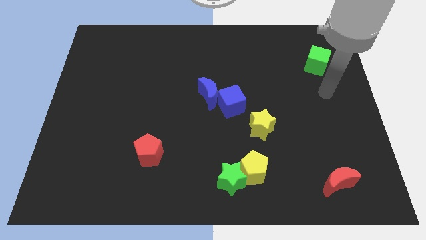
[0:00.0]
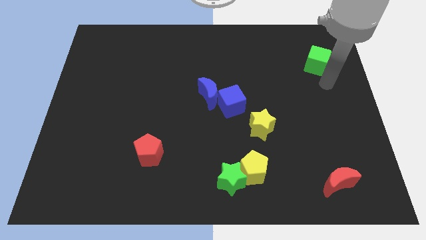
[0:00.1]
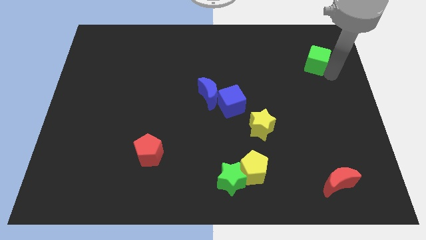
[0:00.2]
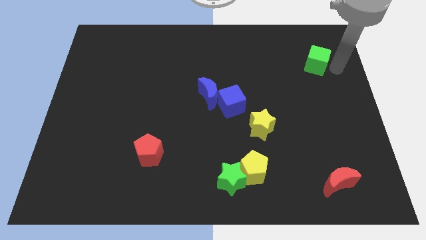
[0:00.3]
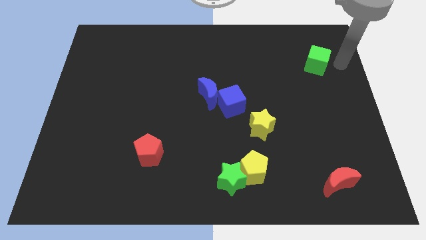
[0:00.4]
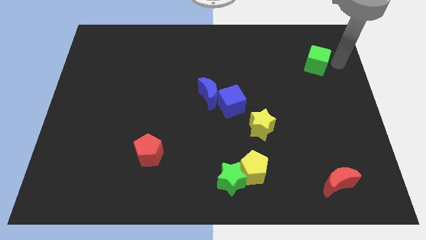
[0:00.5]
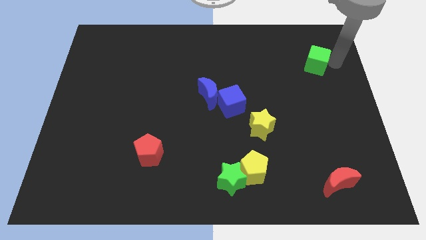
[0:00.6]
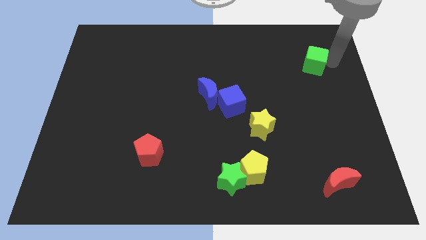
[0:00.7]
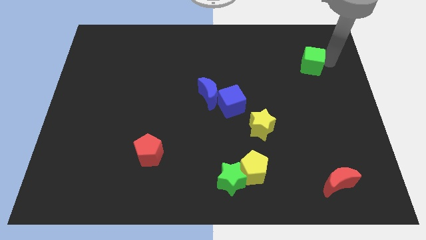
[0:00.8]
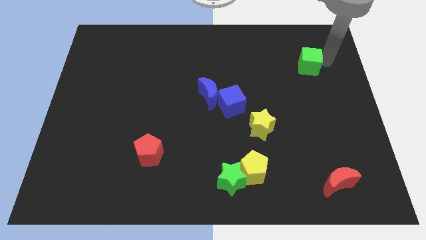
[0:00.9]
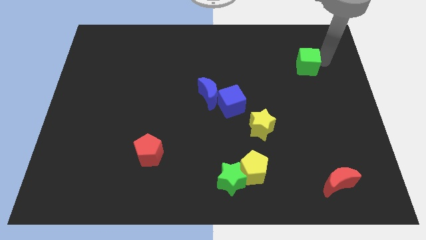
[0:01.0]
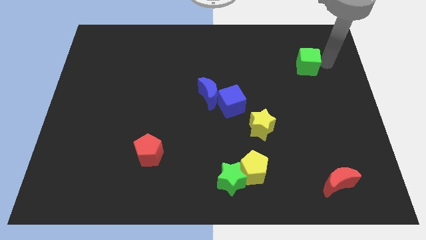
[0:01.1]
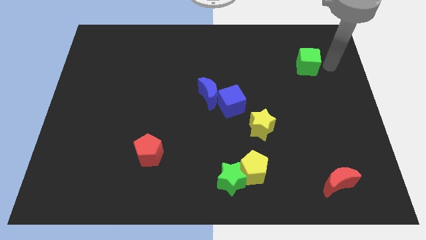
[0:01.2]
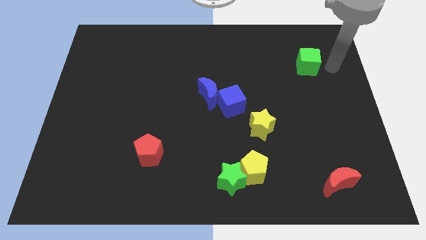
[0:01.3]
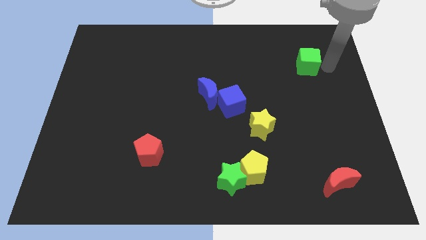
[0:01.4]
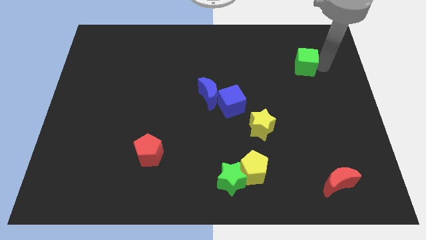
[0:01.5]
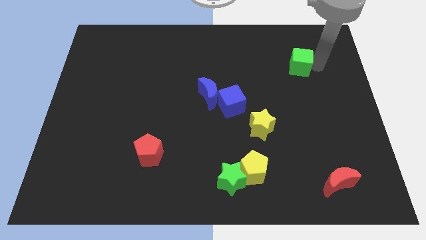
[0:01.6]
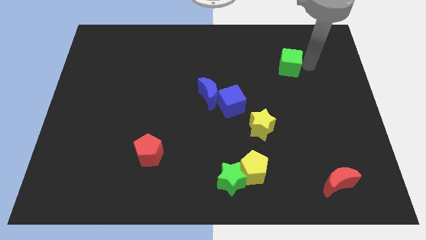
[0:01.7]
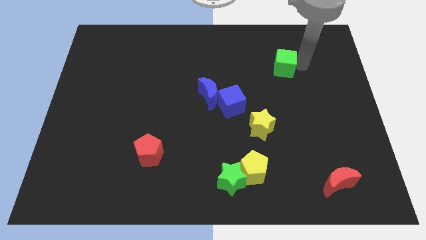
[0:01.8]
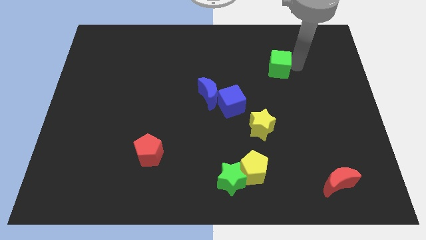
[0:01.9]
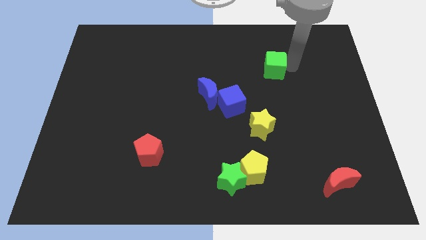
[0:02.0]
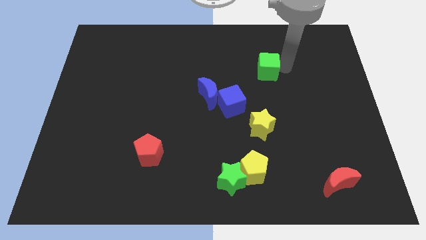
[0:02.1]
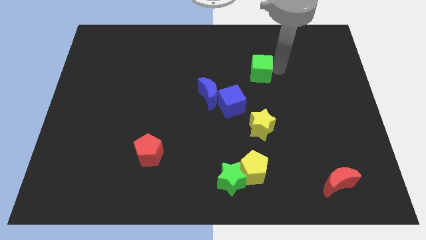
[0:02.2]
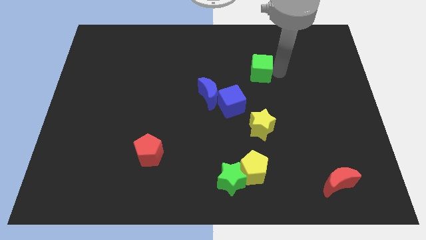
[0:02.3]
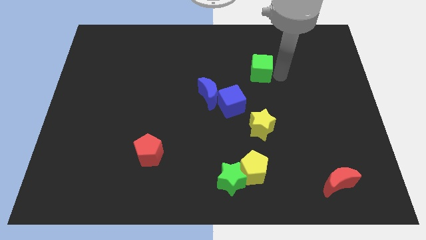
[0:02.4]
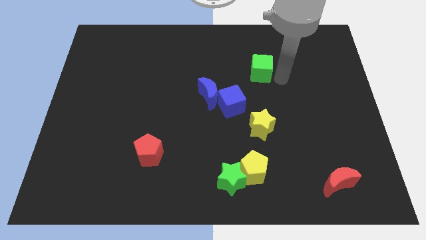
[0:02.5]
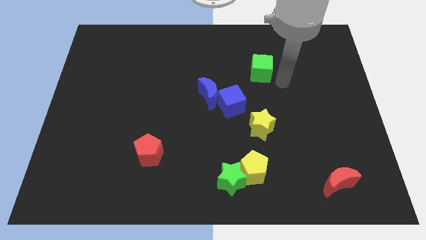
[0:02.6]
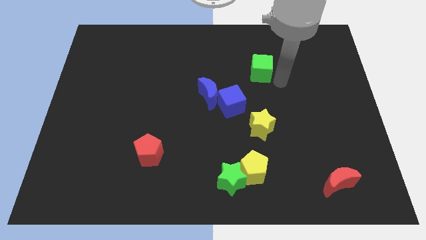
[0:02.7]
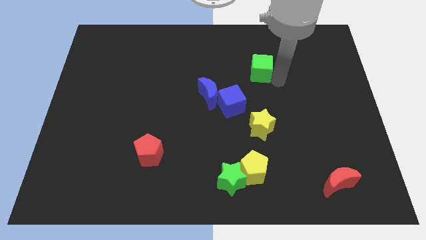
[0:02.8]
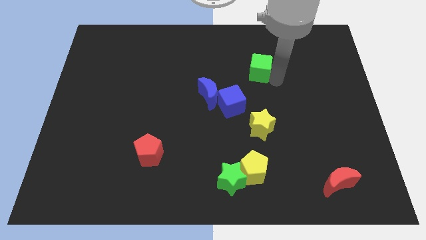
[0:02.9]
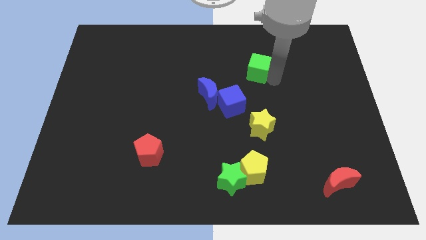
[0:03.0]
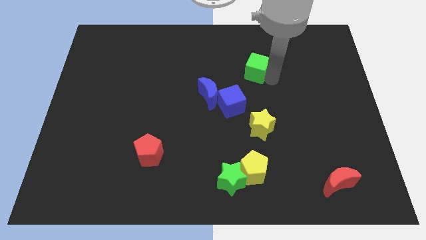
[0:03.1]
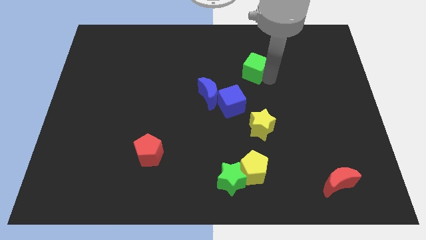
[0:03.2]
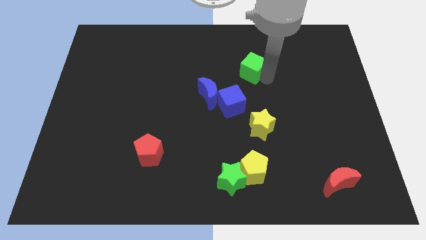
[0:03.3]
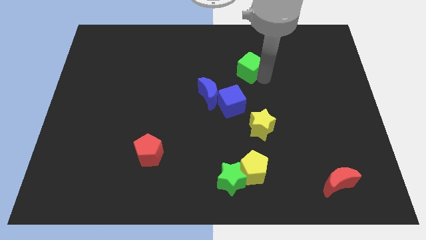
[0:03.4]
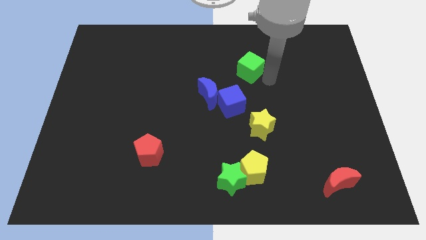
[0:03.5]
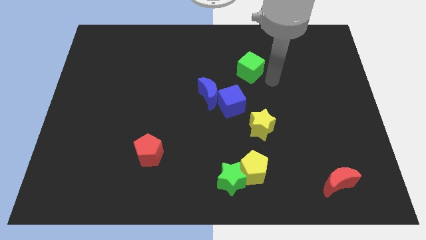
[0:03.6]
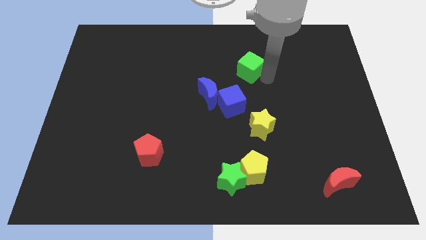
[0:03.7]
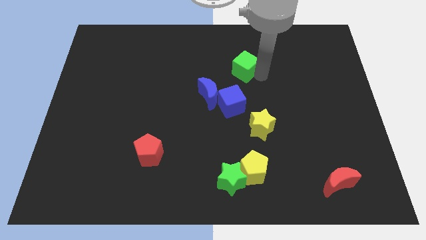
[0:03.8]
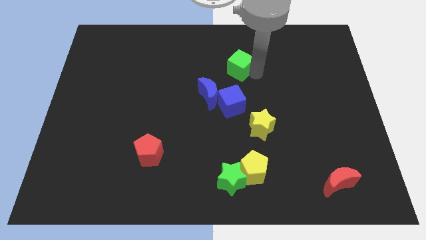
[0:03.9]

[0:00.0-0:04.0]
push the green cube to the left

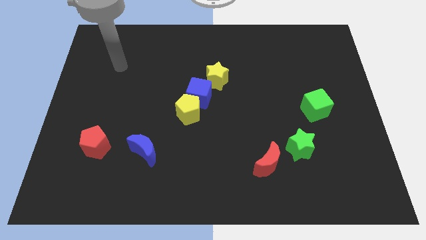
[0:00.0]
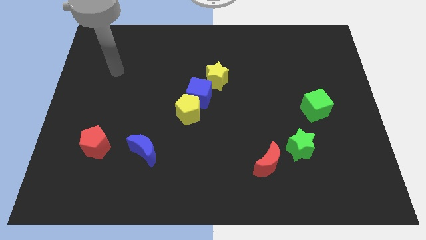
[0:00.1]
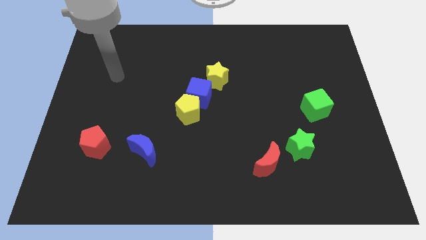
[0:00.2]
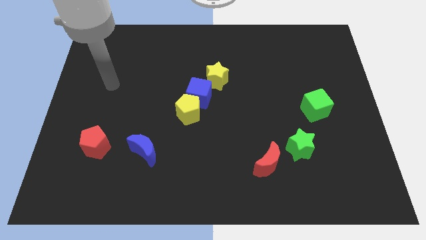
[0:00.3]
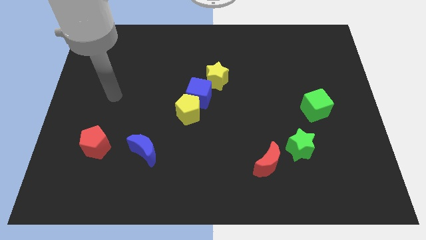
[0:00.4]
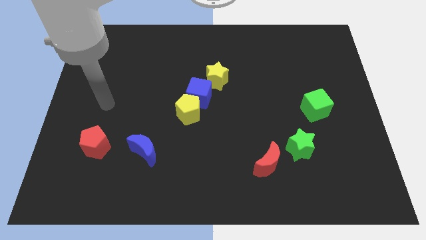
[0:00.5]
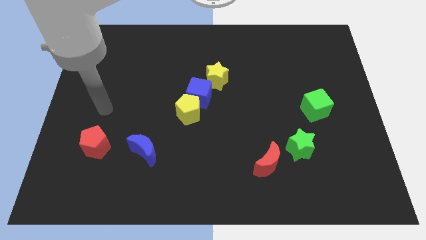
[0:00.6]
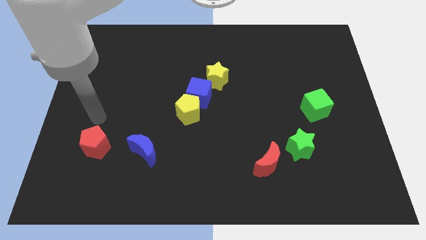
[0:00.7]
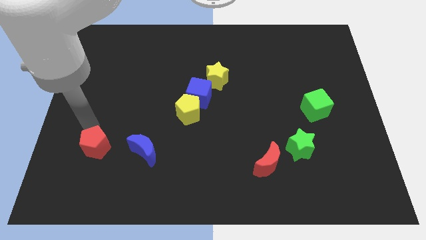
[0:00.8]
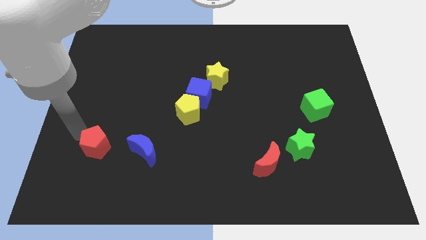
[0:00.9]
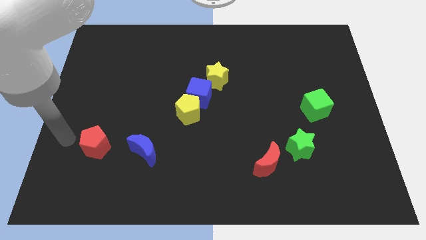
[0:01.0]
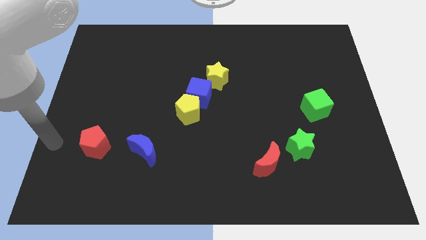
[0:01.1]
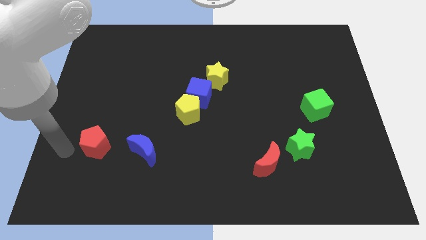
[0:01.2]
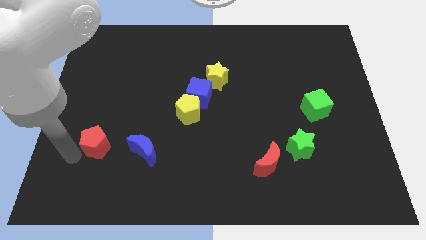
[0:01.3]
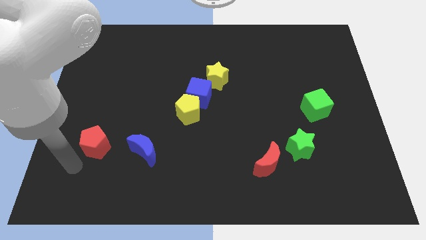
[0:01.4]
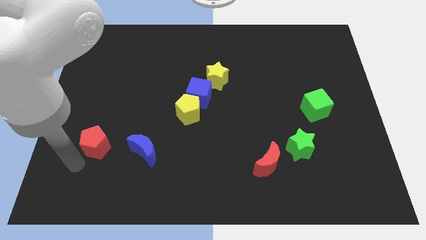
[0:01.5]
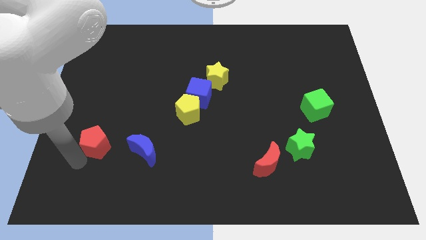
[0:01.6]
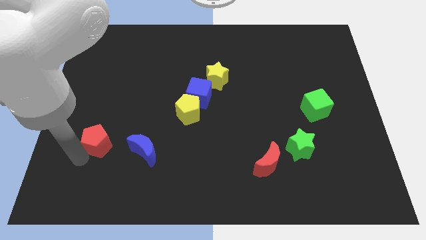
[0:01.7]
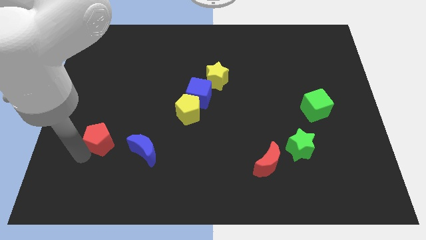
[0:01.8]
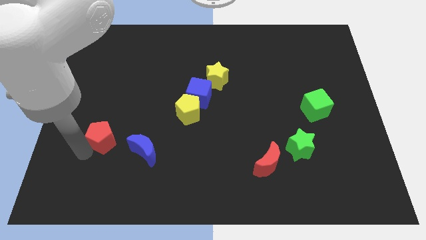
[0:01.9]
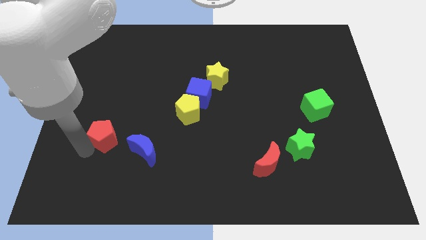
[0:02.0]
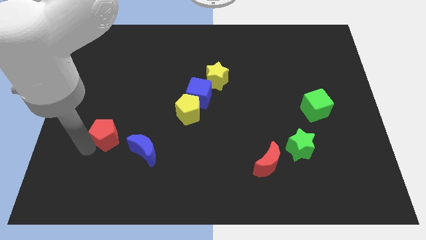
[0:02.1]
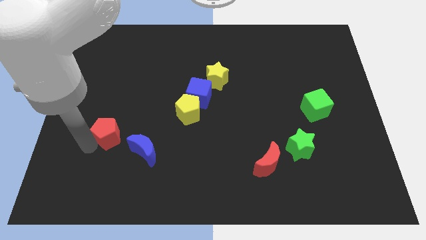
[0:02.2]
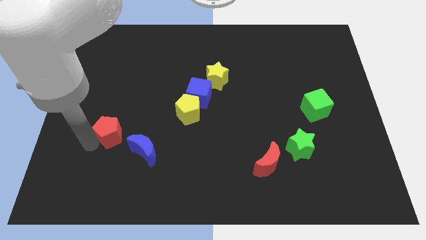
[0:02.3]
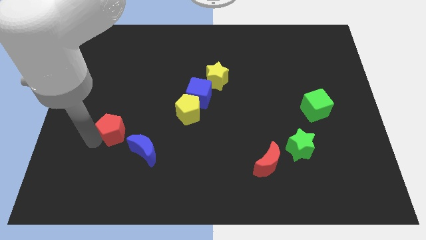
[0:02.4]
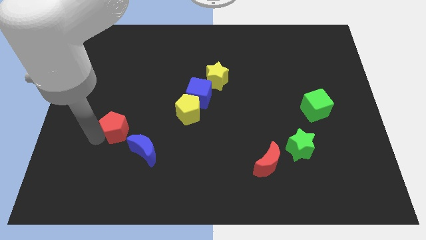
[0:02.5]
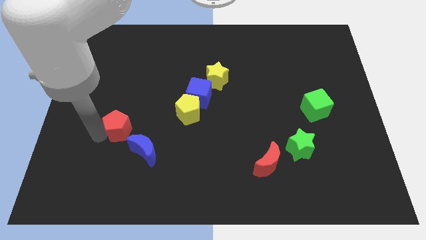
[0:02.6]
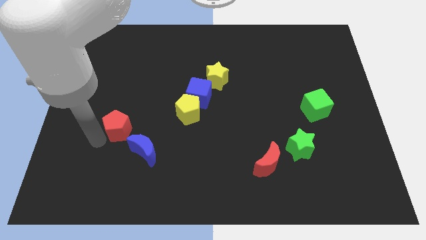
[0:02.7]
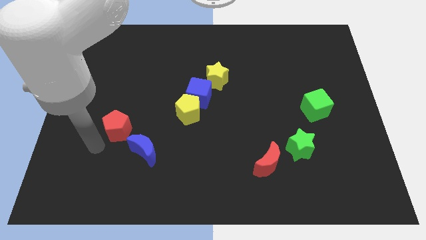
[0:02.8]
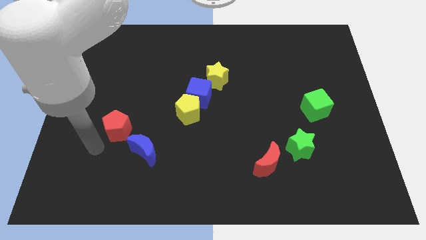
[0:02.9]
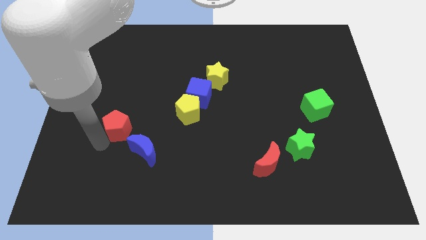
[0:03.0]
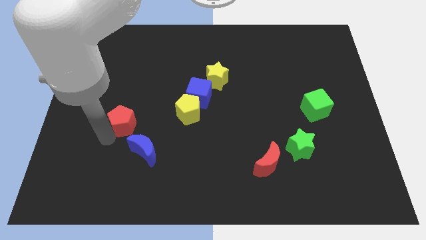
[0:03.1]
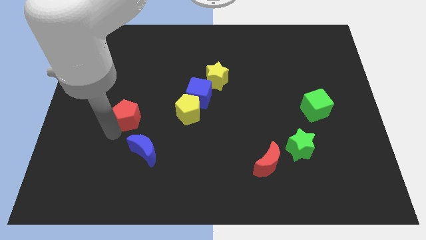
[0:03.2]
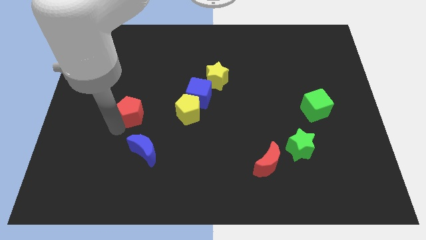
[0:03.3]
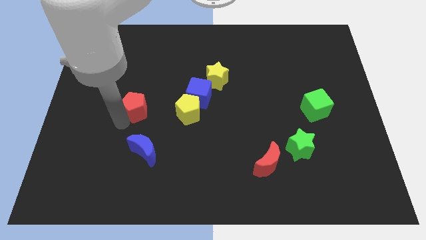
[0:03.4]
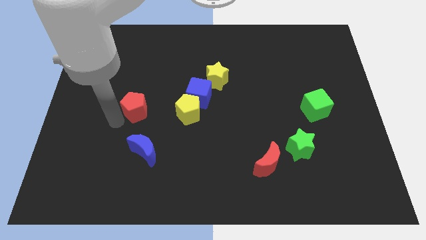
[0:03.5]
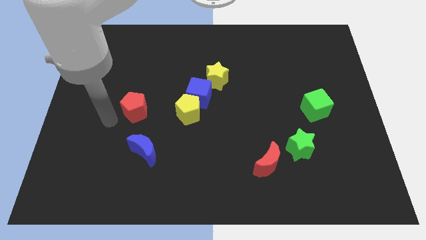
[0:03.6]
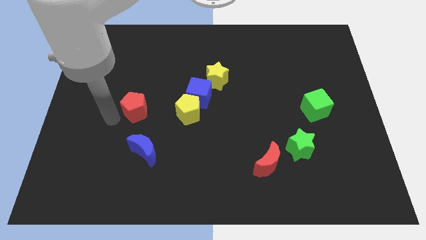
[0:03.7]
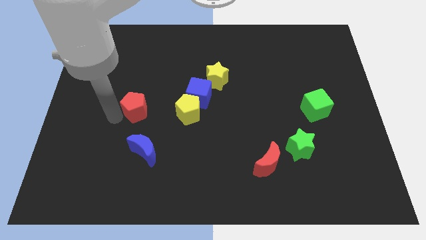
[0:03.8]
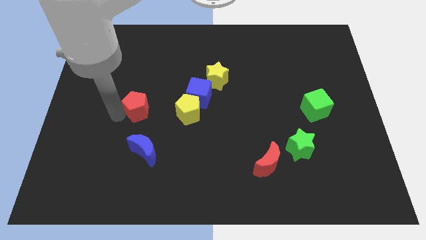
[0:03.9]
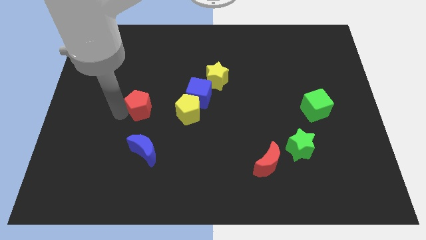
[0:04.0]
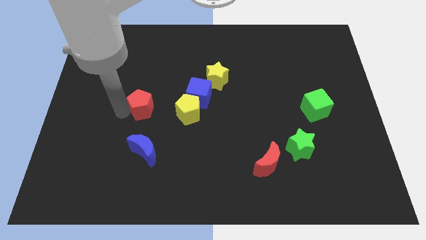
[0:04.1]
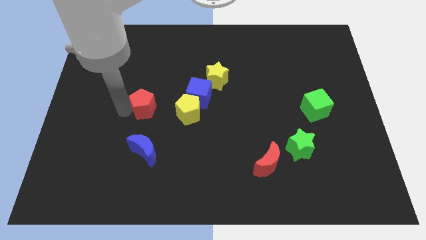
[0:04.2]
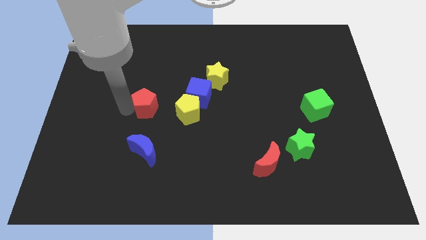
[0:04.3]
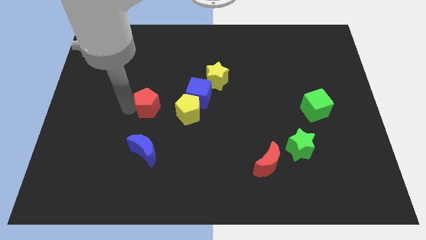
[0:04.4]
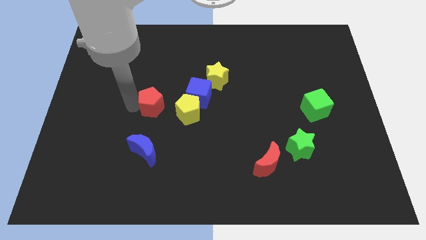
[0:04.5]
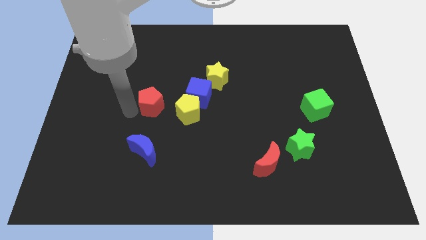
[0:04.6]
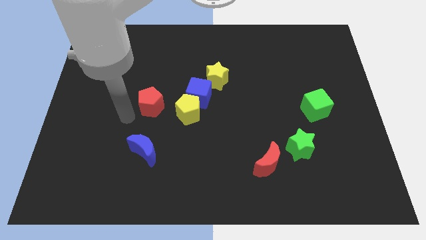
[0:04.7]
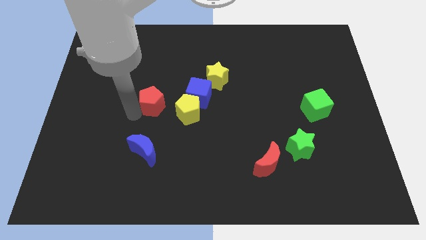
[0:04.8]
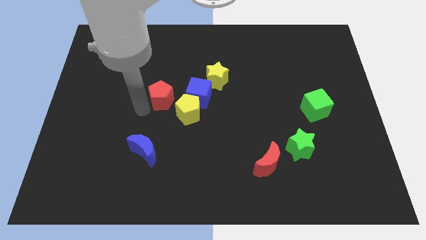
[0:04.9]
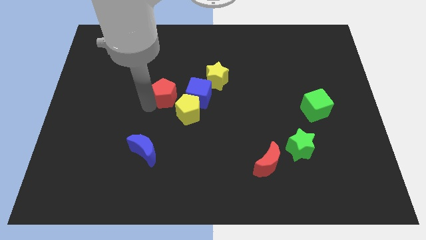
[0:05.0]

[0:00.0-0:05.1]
push the red pentagon up and then right
